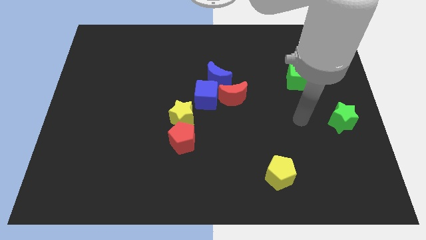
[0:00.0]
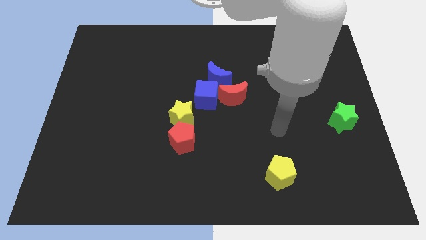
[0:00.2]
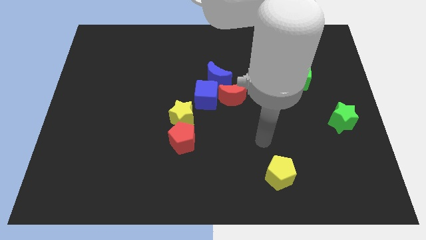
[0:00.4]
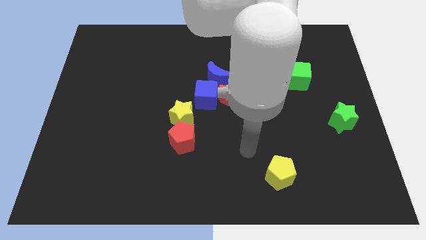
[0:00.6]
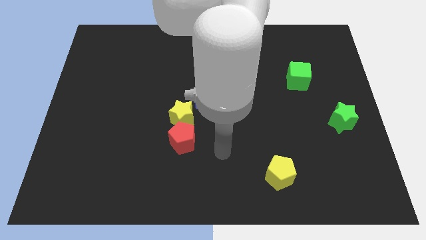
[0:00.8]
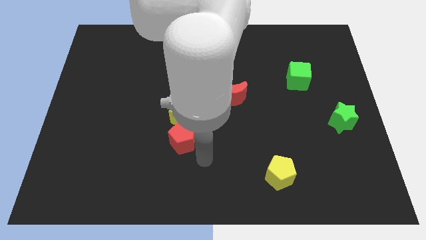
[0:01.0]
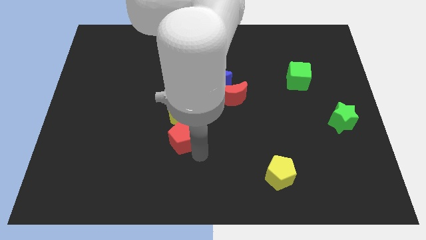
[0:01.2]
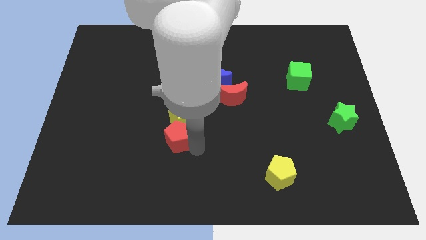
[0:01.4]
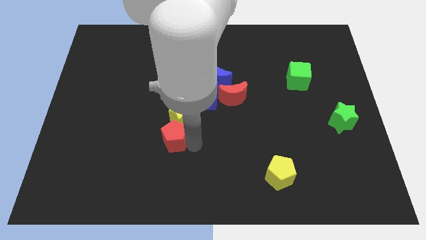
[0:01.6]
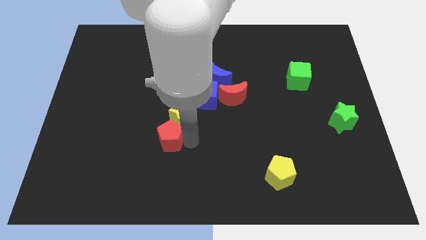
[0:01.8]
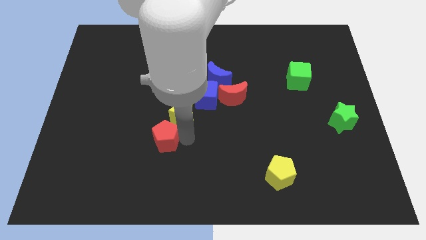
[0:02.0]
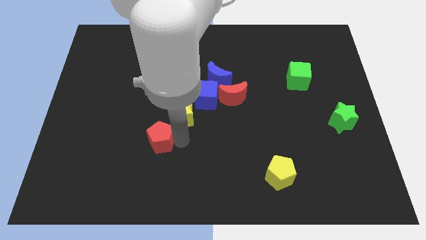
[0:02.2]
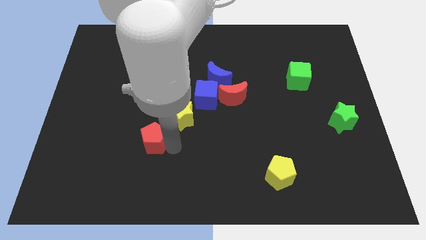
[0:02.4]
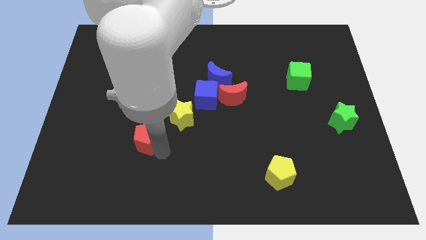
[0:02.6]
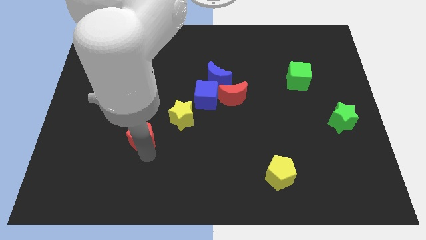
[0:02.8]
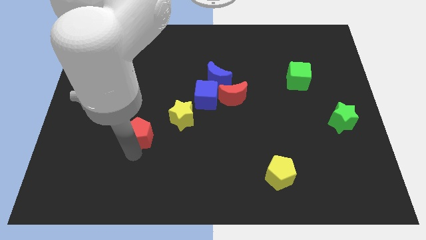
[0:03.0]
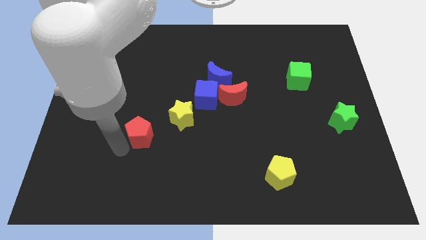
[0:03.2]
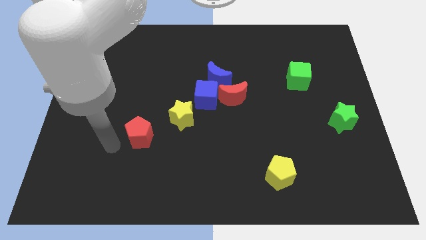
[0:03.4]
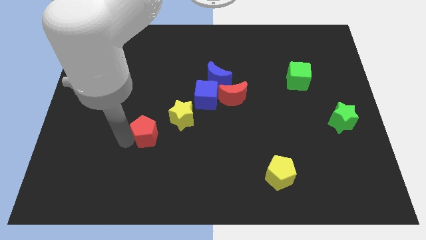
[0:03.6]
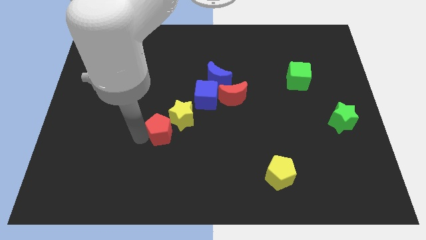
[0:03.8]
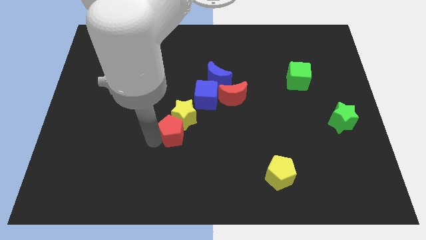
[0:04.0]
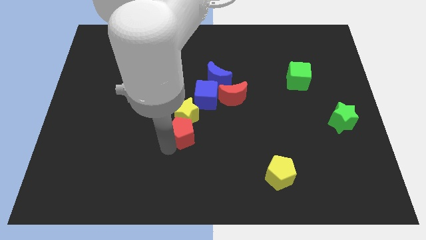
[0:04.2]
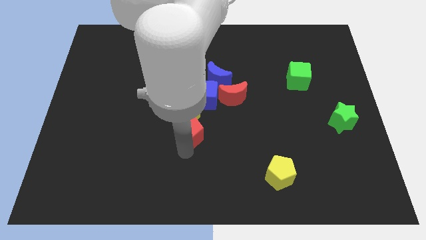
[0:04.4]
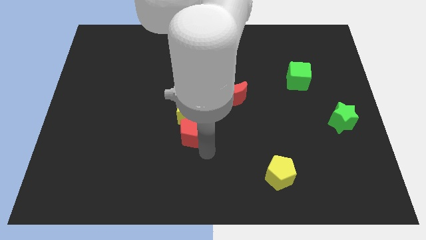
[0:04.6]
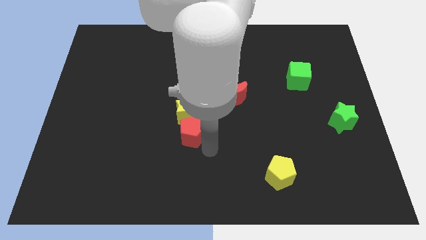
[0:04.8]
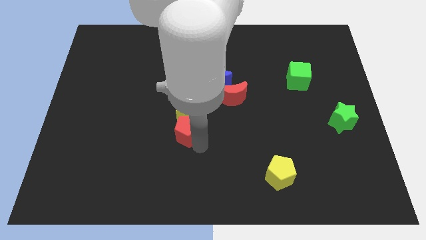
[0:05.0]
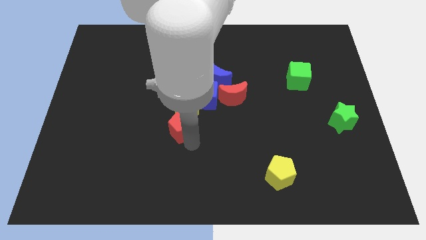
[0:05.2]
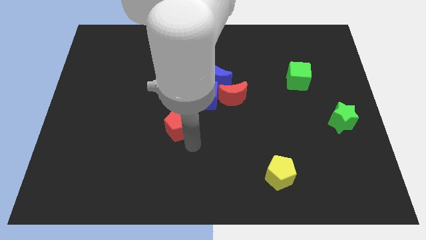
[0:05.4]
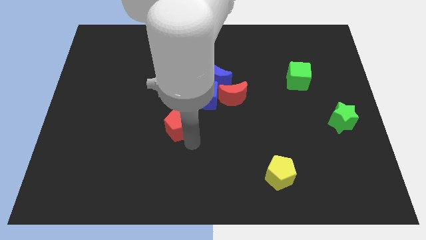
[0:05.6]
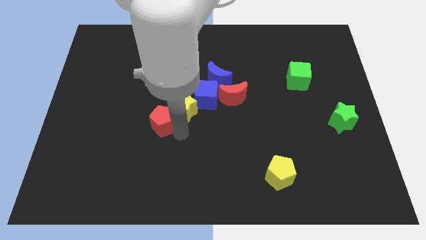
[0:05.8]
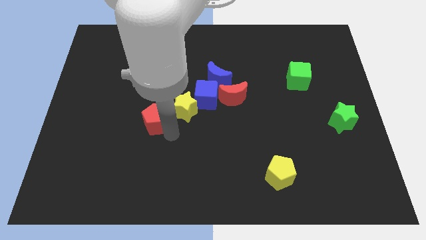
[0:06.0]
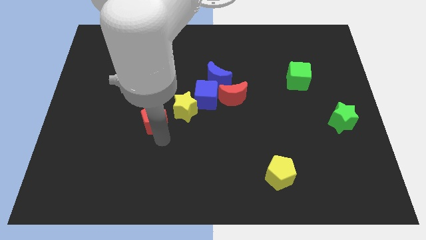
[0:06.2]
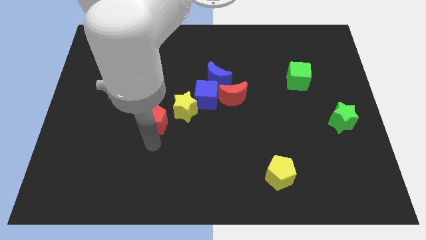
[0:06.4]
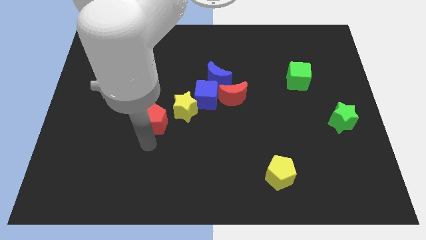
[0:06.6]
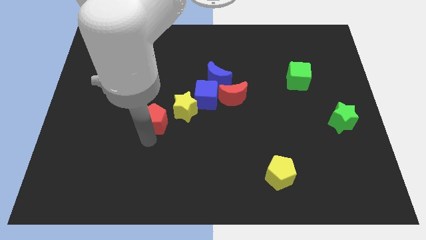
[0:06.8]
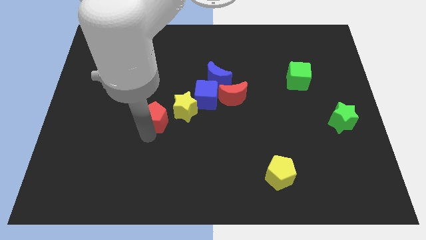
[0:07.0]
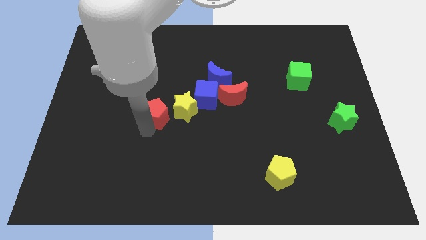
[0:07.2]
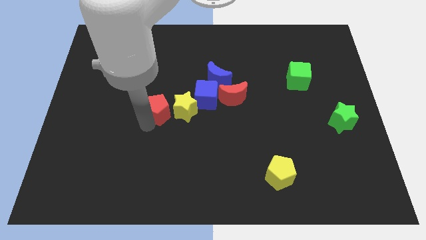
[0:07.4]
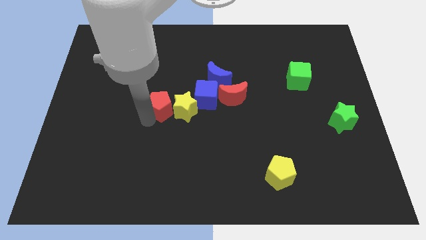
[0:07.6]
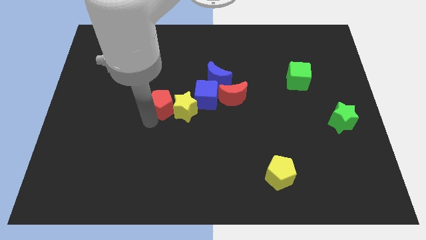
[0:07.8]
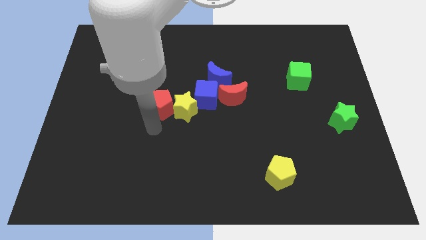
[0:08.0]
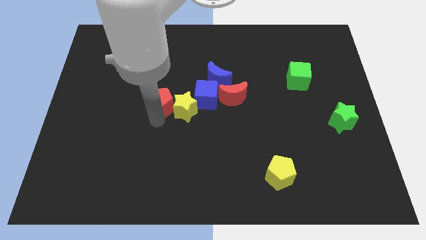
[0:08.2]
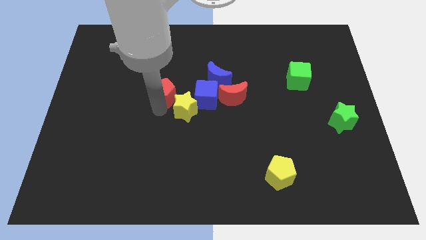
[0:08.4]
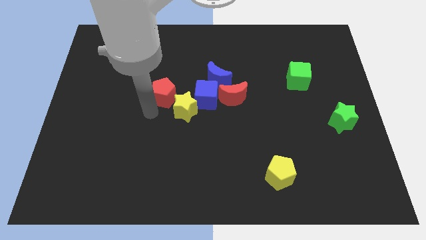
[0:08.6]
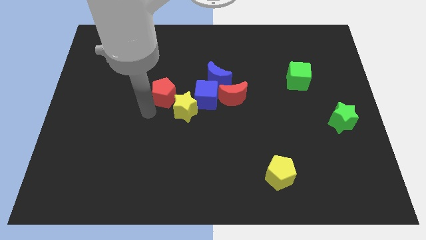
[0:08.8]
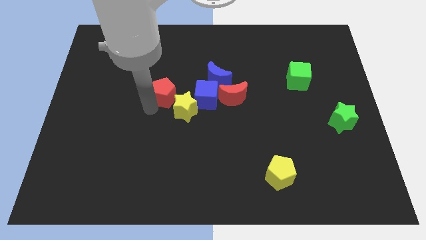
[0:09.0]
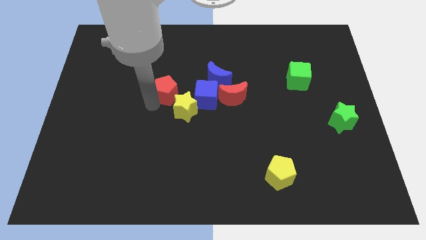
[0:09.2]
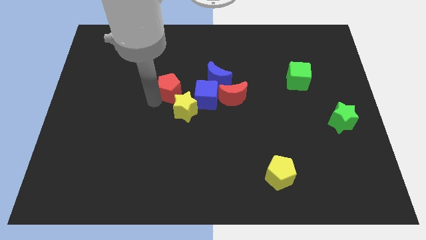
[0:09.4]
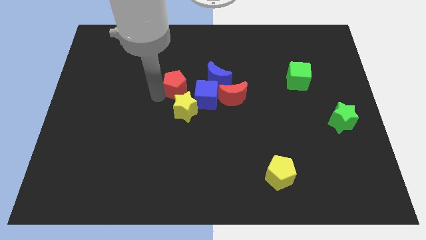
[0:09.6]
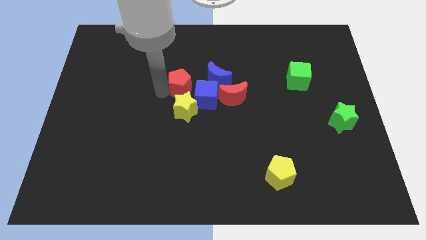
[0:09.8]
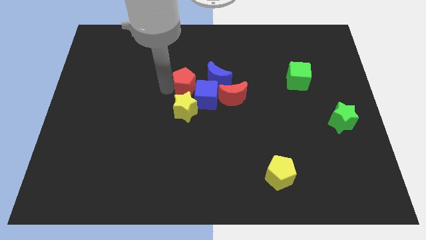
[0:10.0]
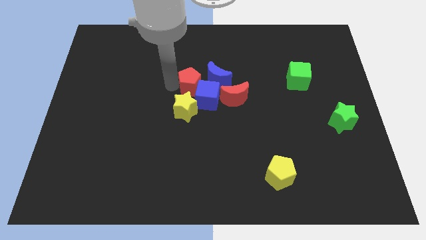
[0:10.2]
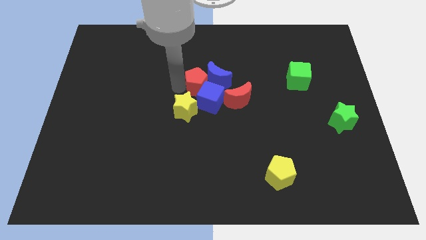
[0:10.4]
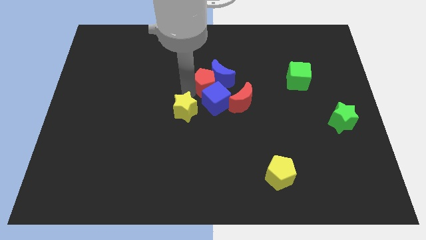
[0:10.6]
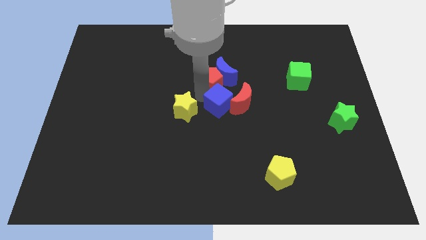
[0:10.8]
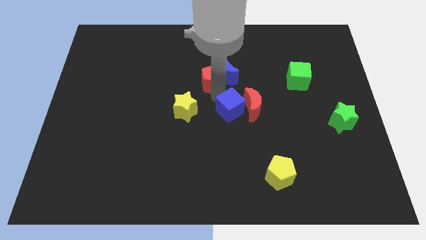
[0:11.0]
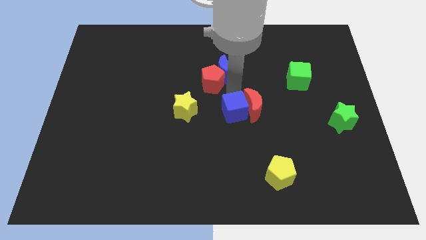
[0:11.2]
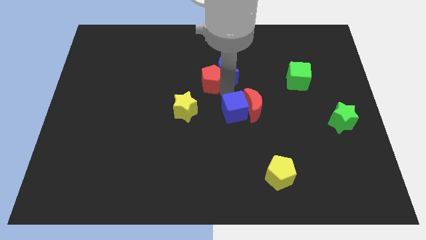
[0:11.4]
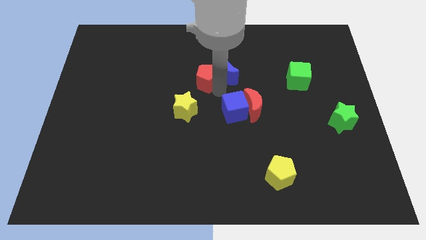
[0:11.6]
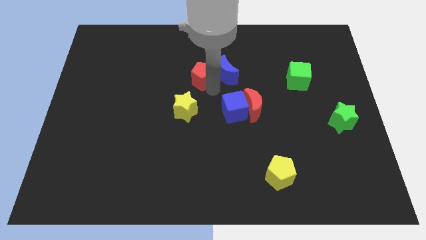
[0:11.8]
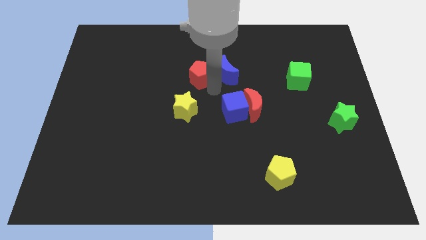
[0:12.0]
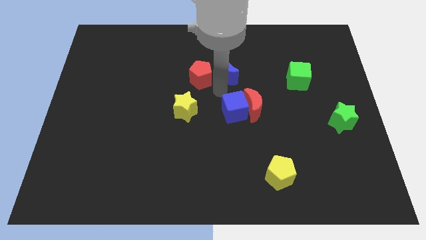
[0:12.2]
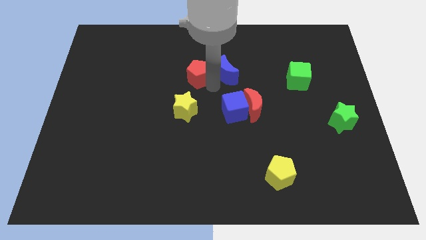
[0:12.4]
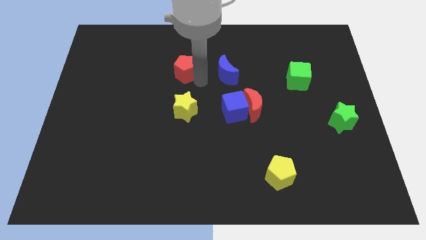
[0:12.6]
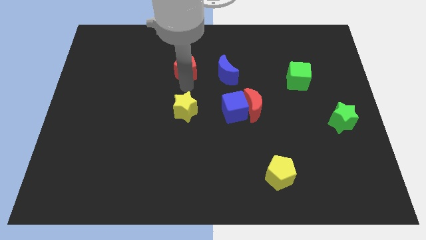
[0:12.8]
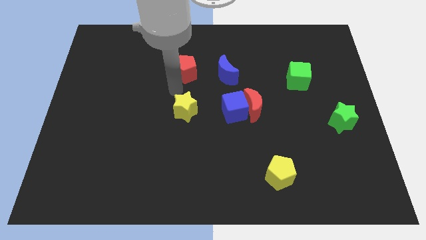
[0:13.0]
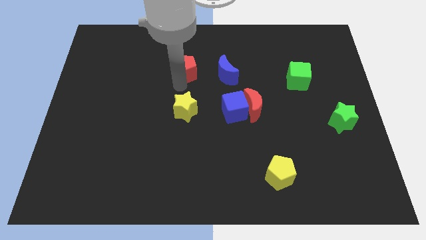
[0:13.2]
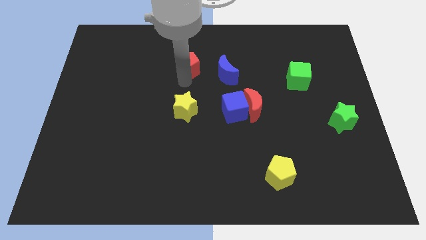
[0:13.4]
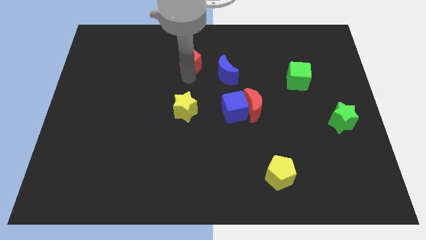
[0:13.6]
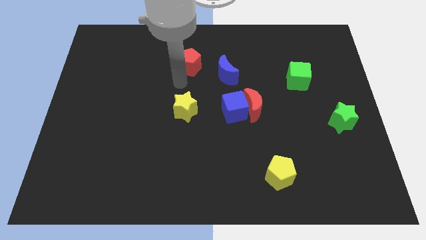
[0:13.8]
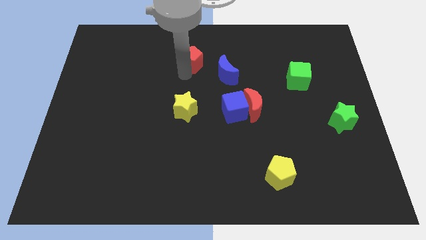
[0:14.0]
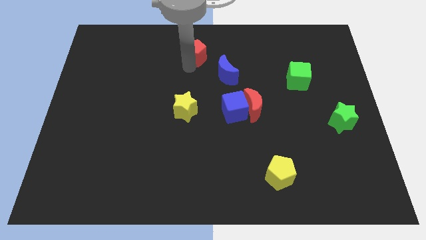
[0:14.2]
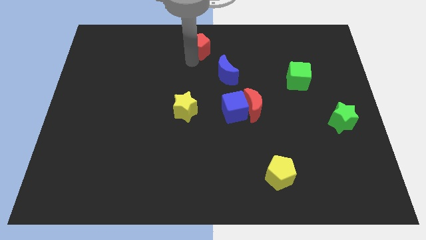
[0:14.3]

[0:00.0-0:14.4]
move the red pentagon to the top side

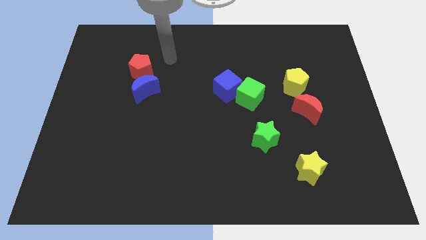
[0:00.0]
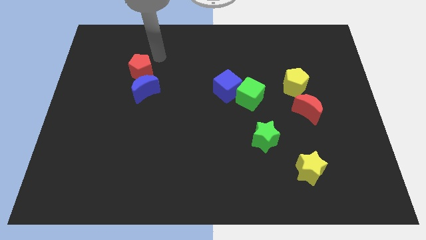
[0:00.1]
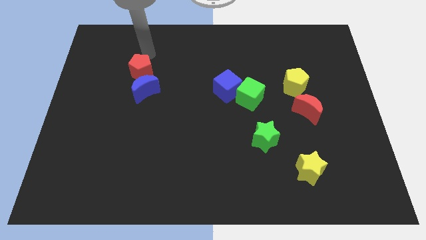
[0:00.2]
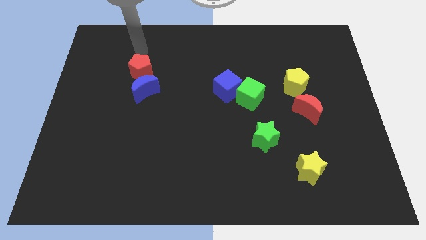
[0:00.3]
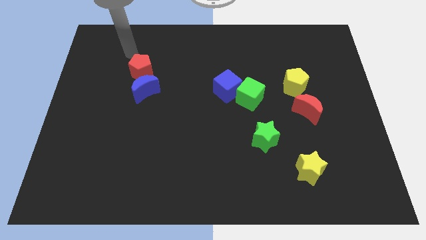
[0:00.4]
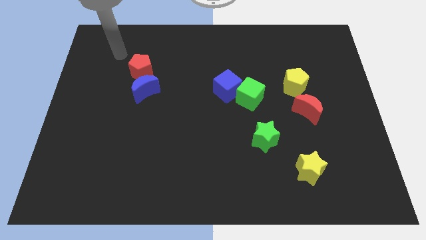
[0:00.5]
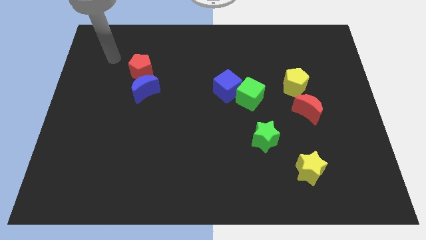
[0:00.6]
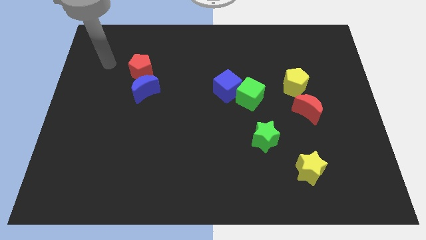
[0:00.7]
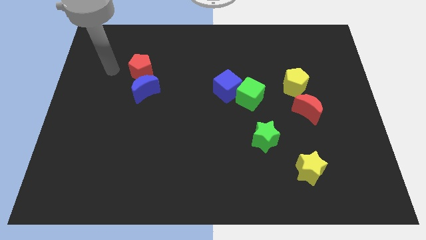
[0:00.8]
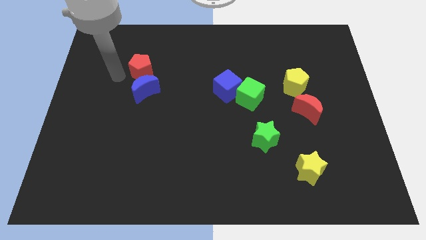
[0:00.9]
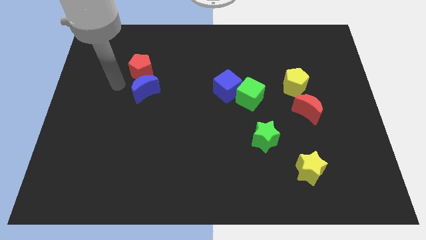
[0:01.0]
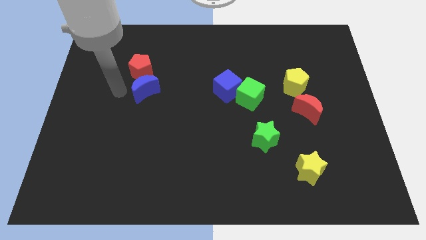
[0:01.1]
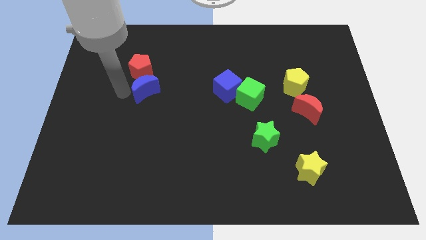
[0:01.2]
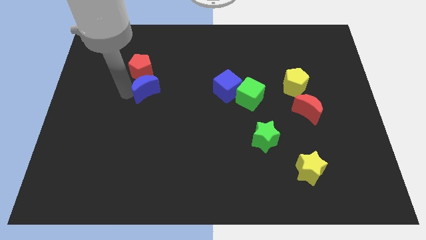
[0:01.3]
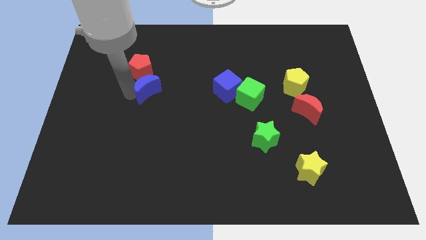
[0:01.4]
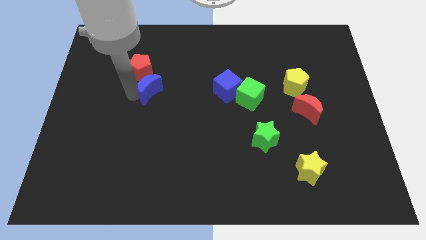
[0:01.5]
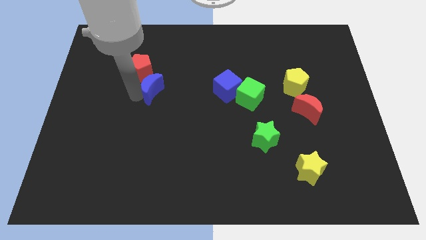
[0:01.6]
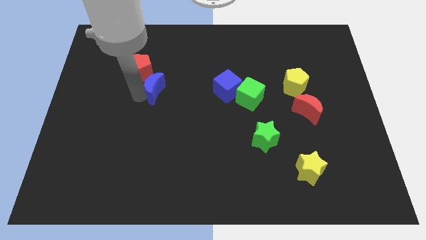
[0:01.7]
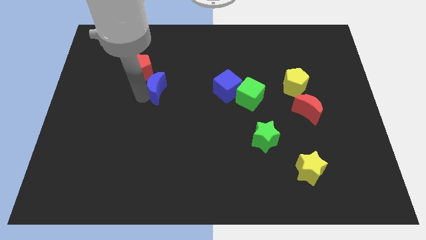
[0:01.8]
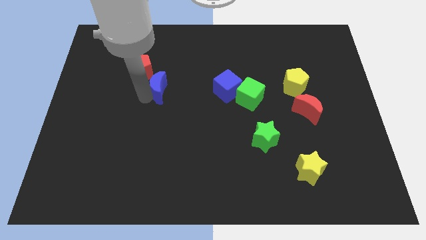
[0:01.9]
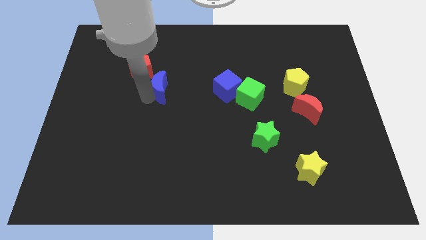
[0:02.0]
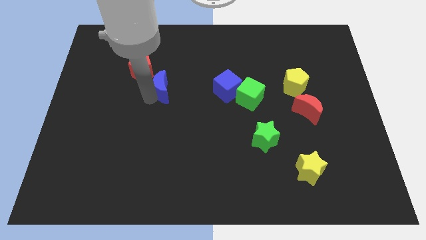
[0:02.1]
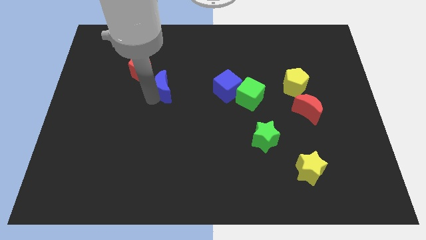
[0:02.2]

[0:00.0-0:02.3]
slide the blue moon to the center of the board
